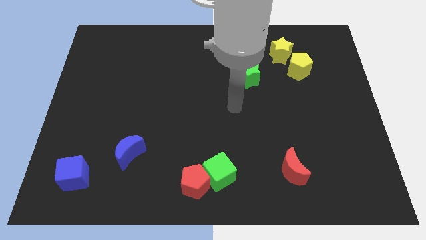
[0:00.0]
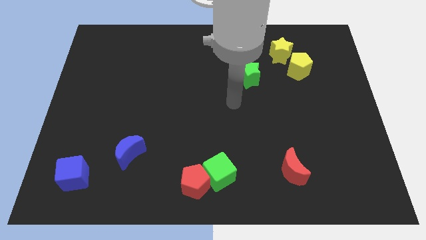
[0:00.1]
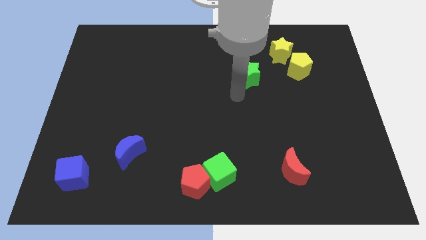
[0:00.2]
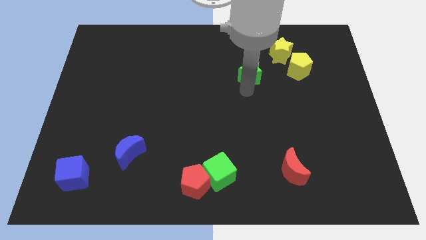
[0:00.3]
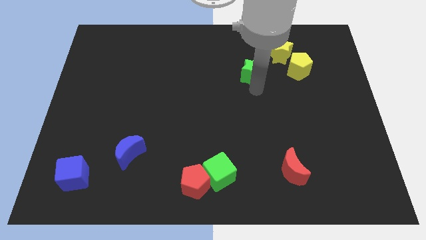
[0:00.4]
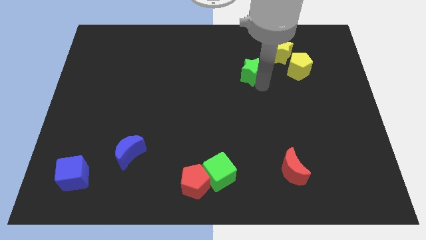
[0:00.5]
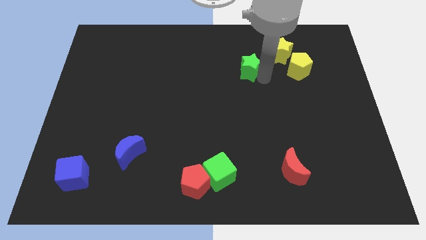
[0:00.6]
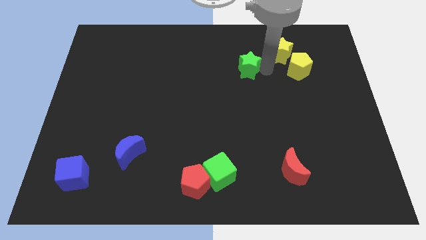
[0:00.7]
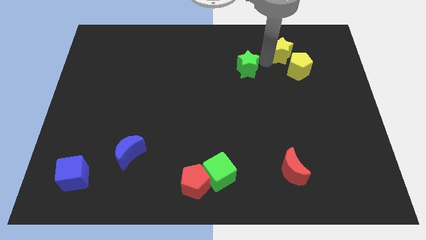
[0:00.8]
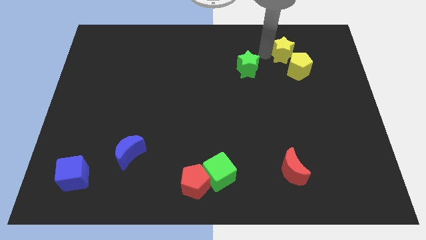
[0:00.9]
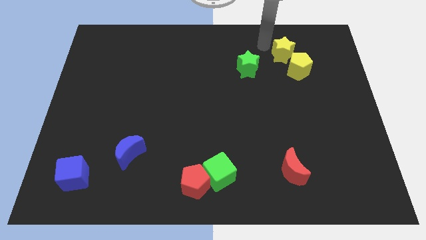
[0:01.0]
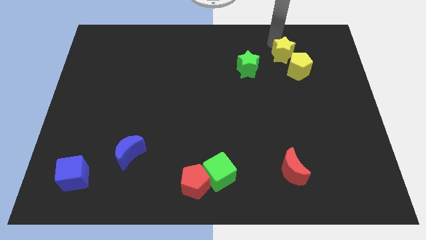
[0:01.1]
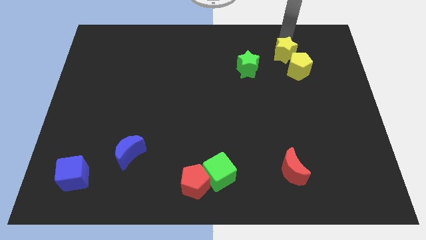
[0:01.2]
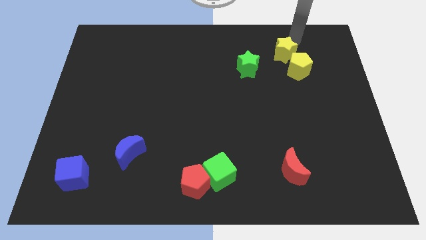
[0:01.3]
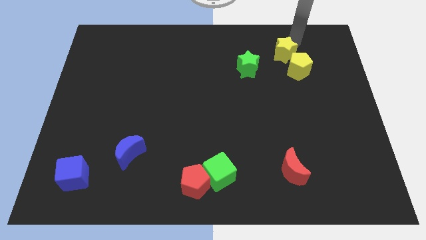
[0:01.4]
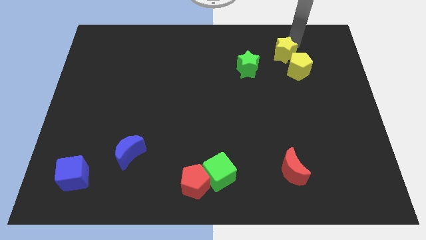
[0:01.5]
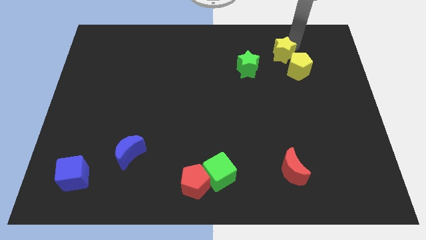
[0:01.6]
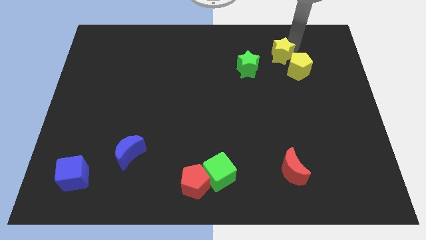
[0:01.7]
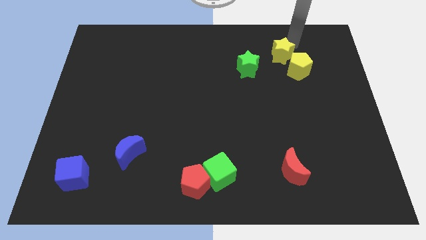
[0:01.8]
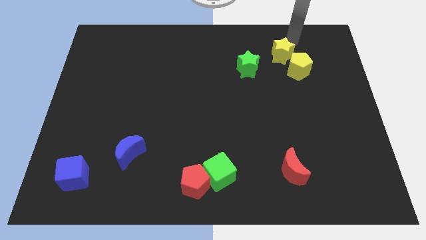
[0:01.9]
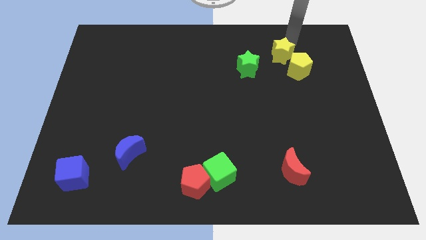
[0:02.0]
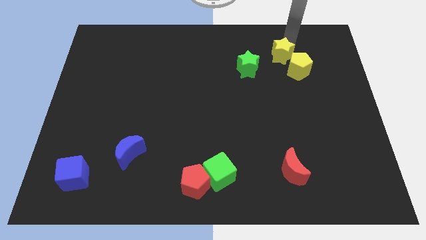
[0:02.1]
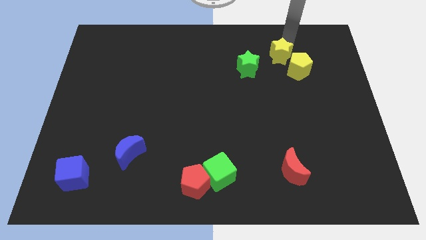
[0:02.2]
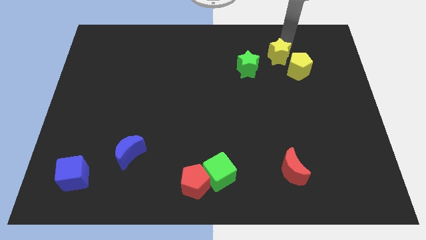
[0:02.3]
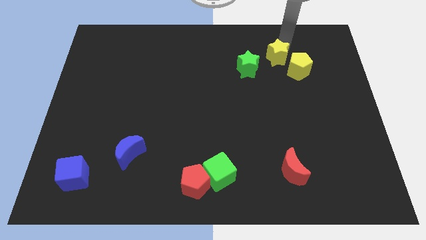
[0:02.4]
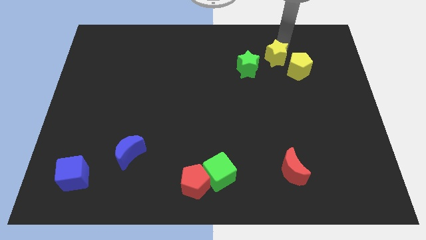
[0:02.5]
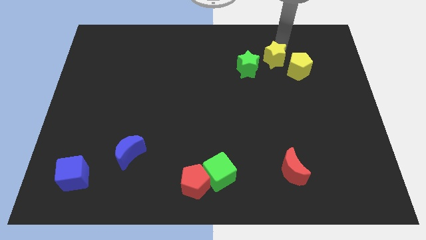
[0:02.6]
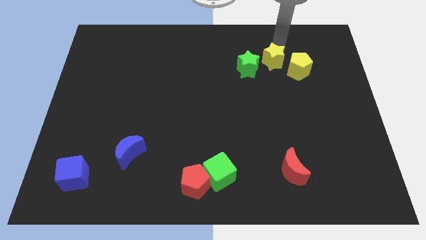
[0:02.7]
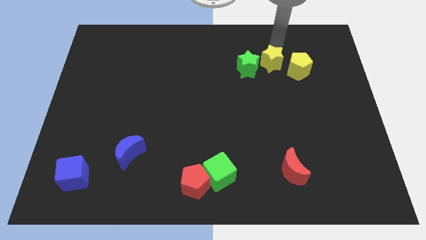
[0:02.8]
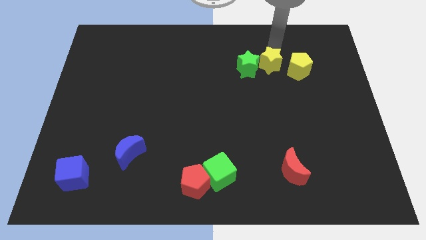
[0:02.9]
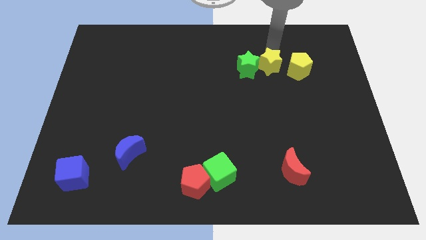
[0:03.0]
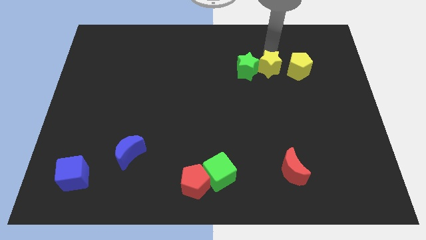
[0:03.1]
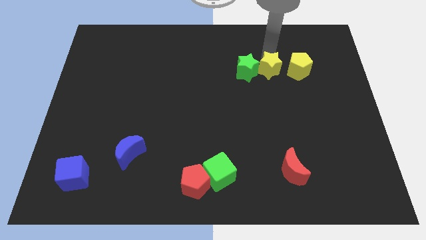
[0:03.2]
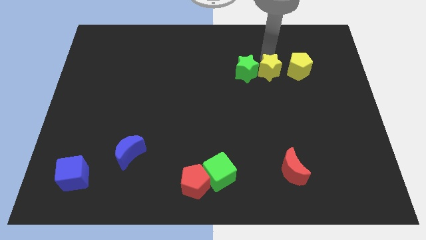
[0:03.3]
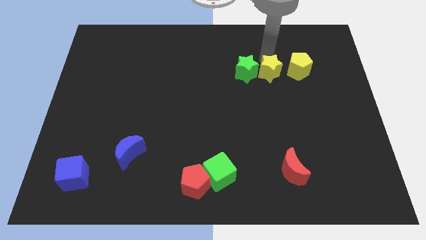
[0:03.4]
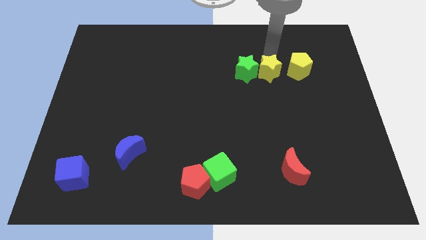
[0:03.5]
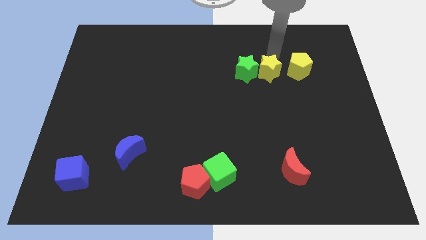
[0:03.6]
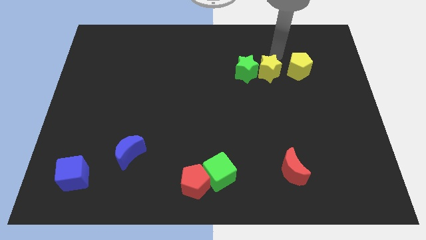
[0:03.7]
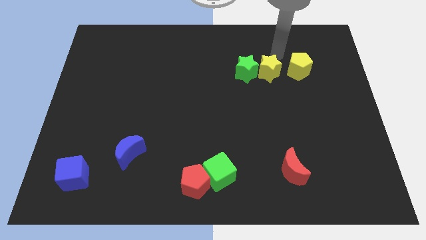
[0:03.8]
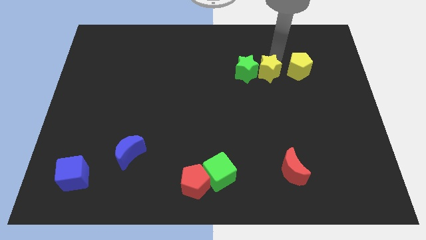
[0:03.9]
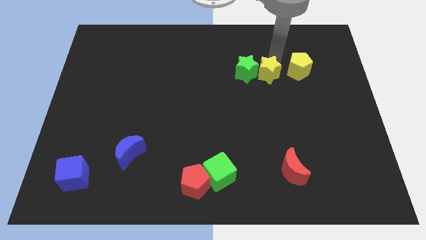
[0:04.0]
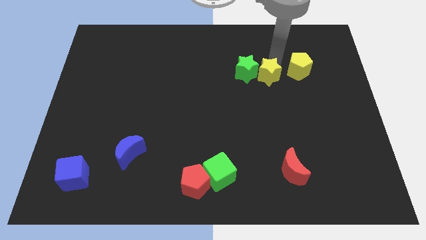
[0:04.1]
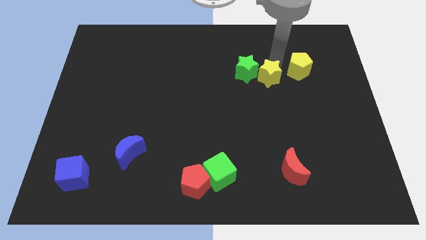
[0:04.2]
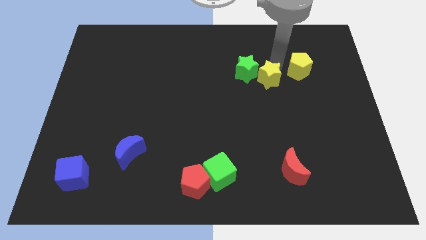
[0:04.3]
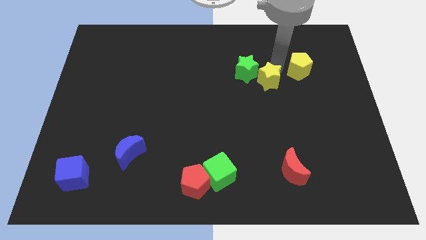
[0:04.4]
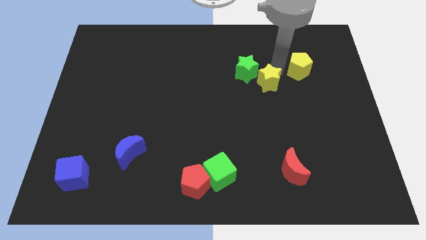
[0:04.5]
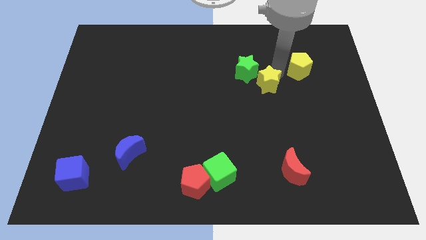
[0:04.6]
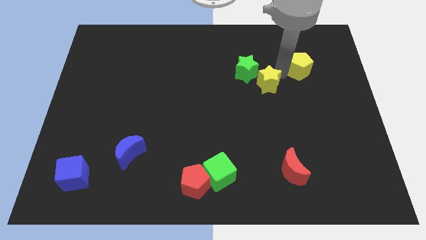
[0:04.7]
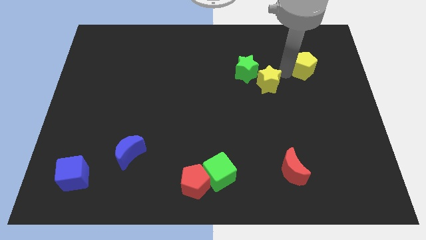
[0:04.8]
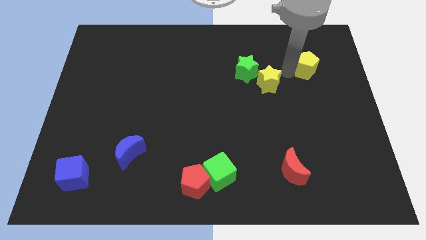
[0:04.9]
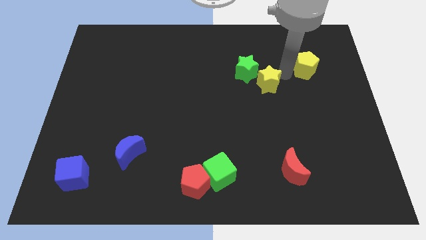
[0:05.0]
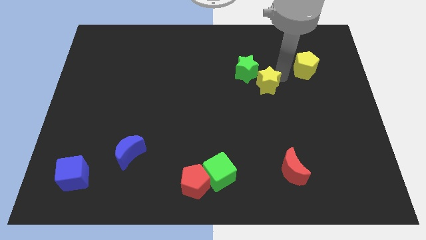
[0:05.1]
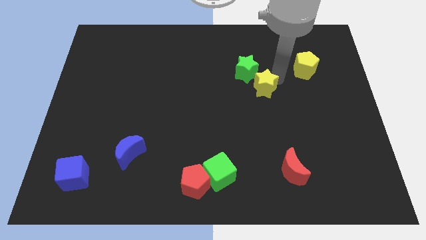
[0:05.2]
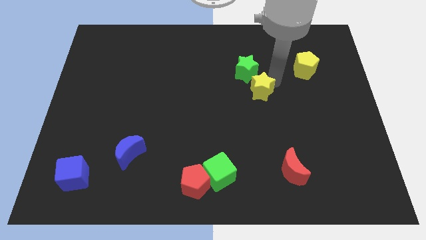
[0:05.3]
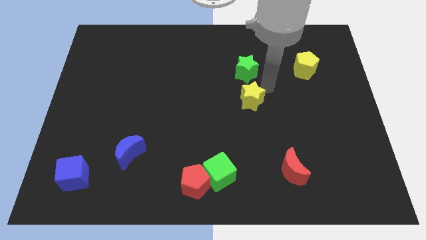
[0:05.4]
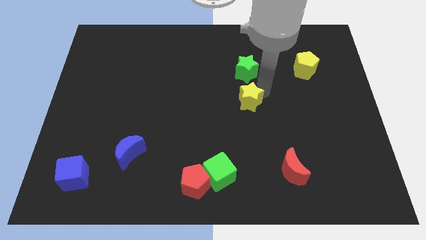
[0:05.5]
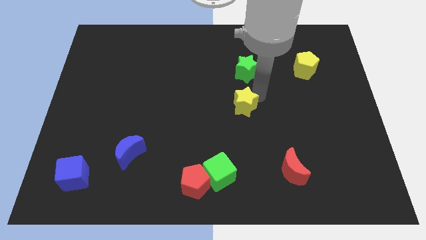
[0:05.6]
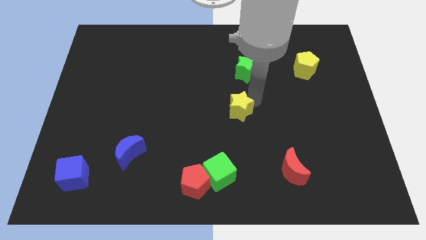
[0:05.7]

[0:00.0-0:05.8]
move the yellow star downwards and to the left diagonally

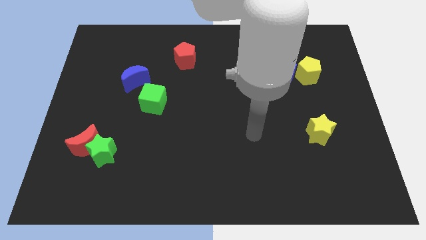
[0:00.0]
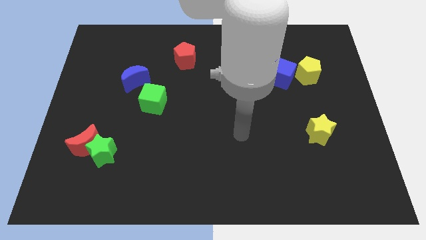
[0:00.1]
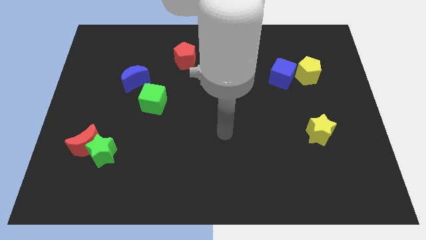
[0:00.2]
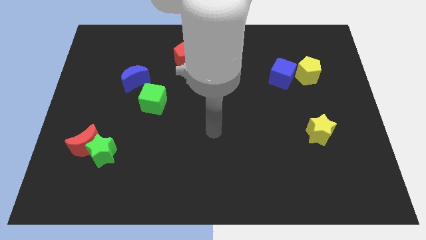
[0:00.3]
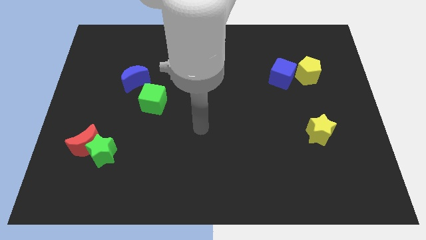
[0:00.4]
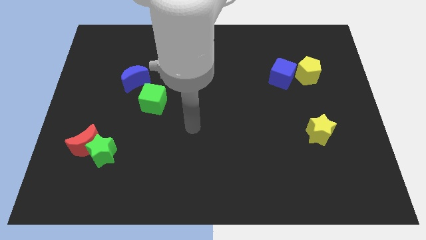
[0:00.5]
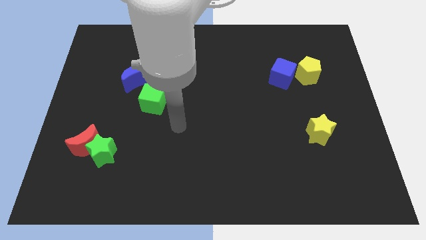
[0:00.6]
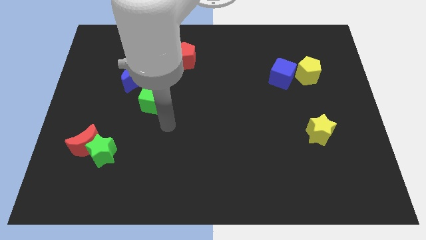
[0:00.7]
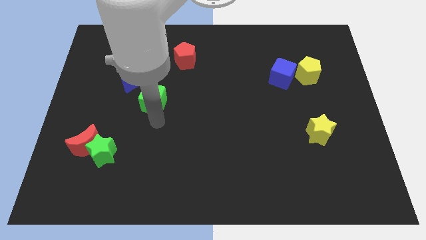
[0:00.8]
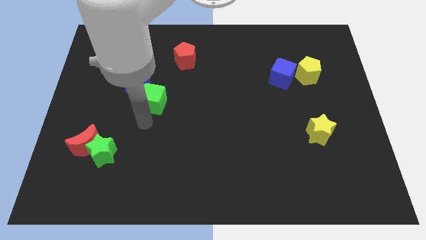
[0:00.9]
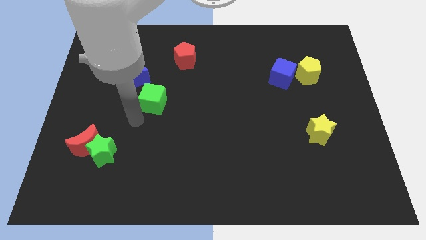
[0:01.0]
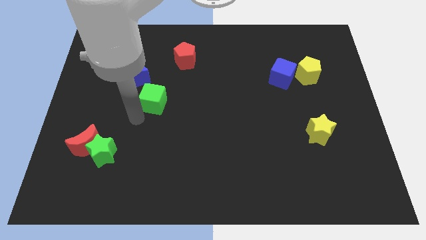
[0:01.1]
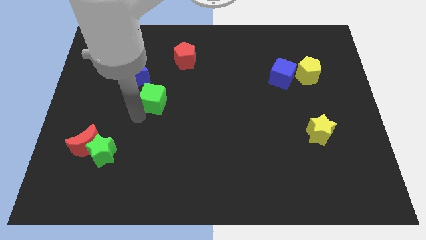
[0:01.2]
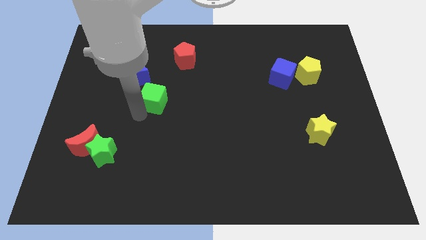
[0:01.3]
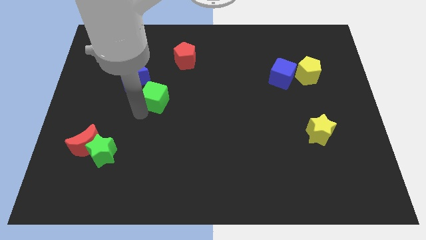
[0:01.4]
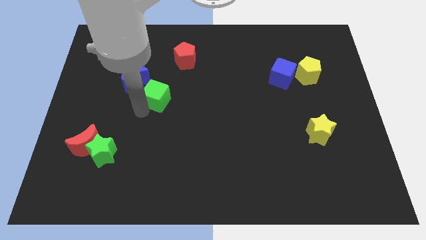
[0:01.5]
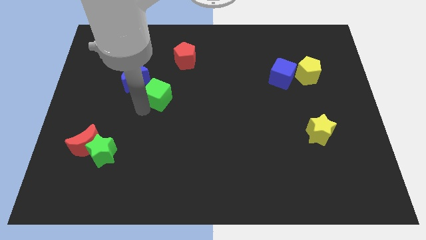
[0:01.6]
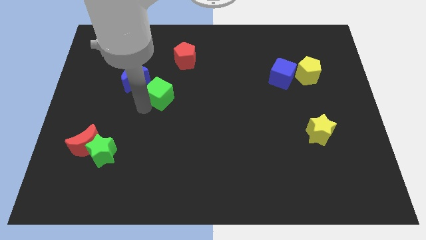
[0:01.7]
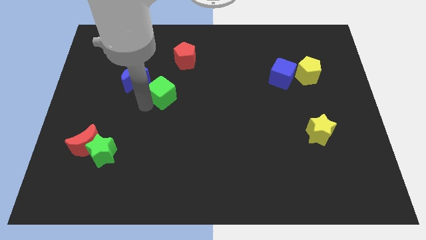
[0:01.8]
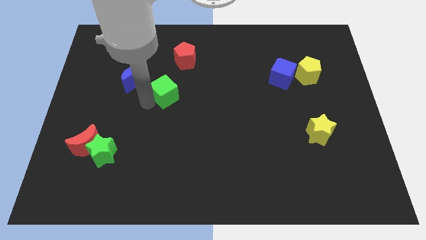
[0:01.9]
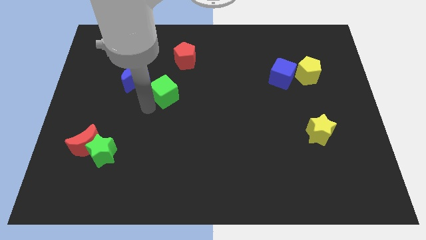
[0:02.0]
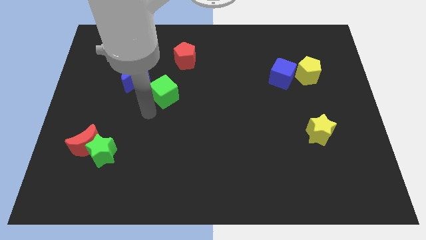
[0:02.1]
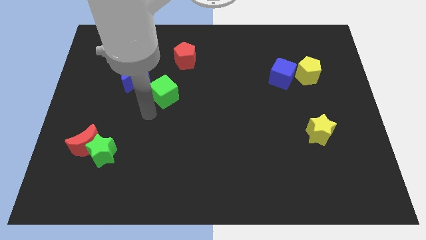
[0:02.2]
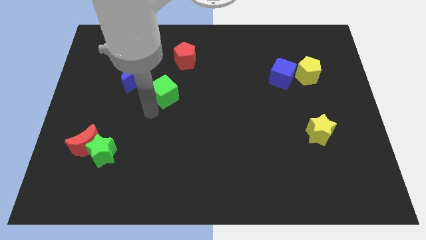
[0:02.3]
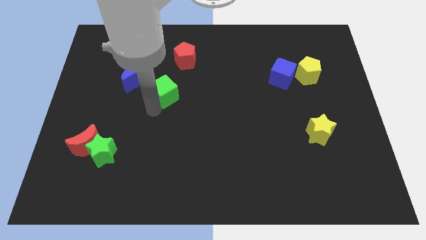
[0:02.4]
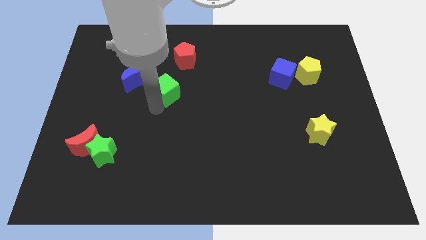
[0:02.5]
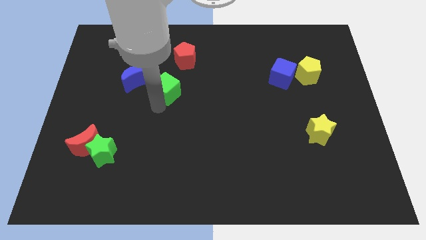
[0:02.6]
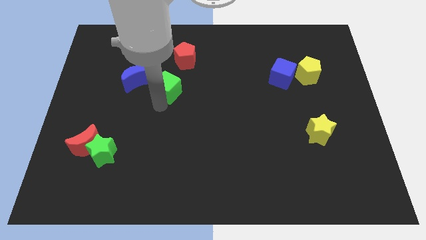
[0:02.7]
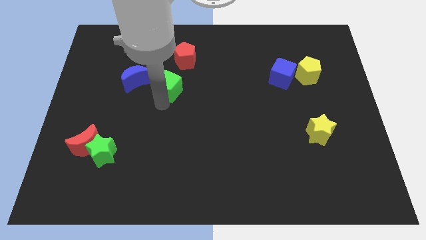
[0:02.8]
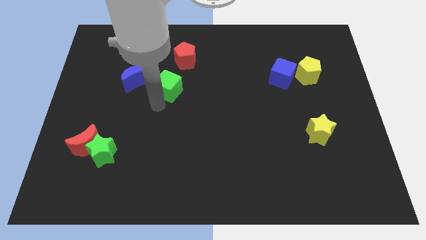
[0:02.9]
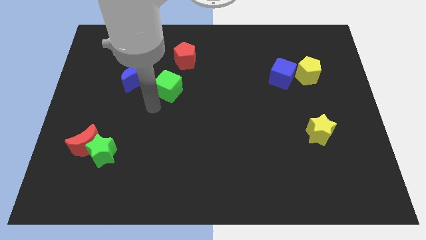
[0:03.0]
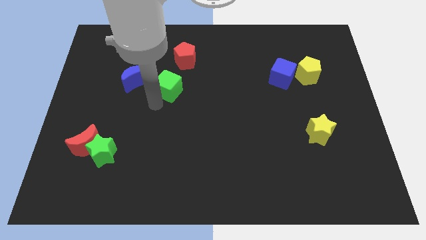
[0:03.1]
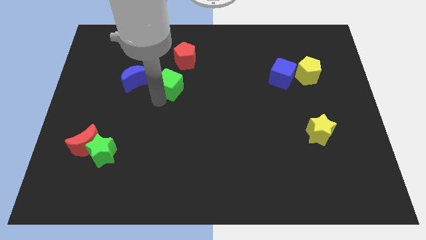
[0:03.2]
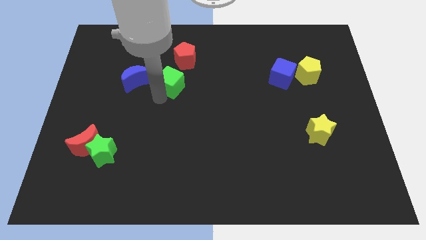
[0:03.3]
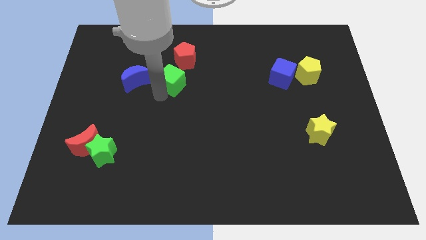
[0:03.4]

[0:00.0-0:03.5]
slightly move the green cube upwards and then right
